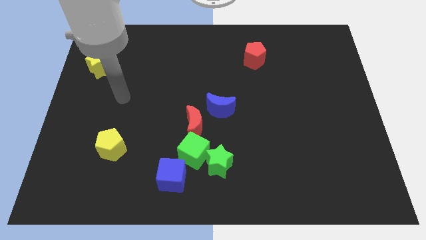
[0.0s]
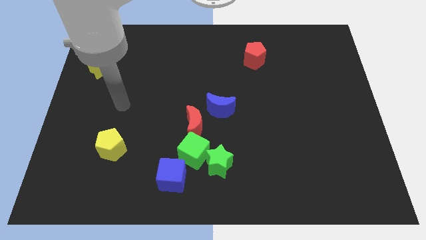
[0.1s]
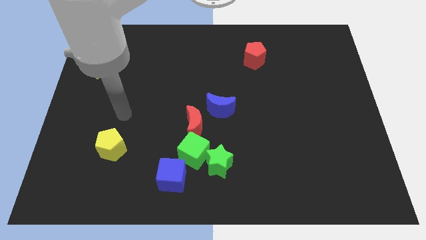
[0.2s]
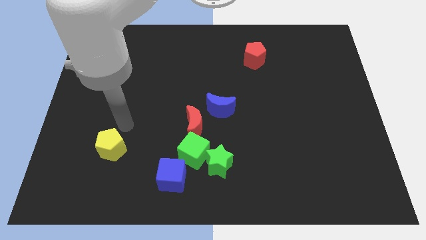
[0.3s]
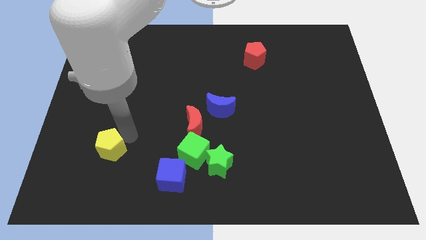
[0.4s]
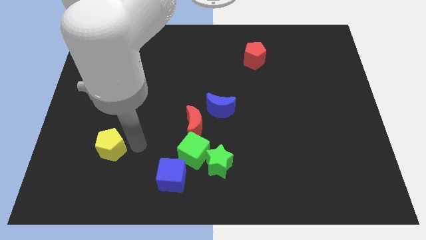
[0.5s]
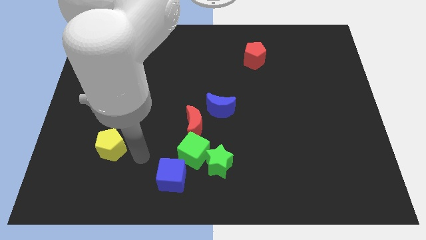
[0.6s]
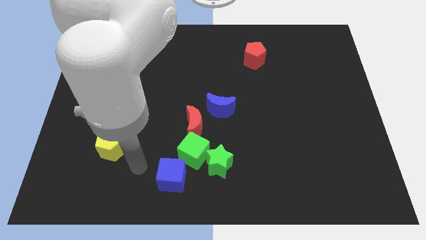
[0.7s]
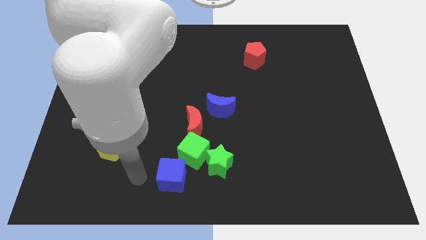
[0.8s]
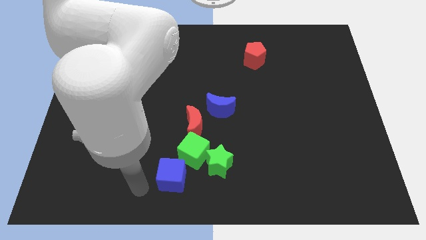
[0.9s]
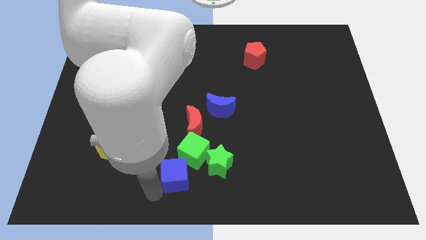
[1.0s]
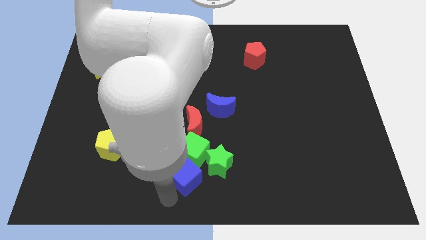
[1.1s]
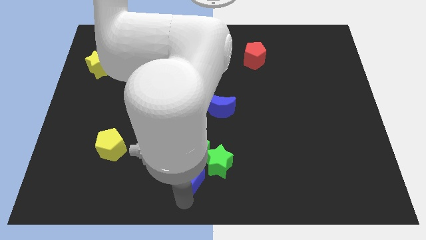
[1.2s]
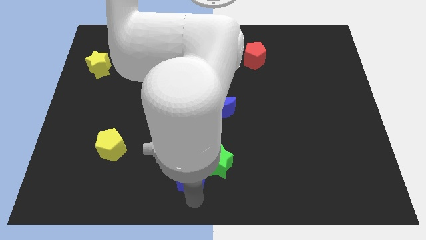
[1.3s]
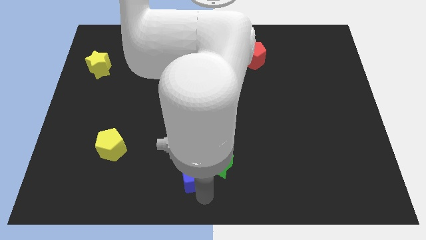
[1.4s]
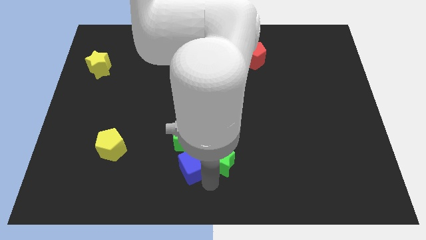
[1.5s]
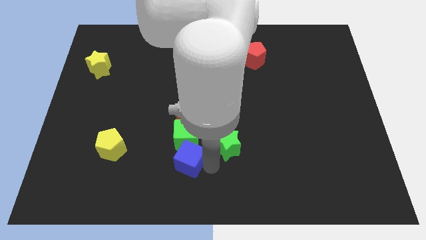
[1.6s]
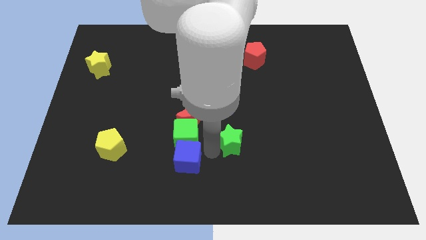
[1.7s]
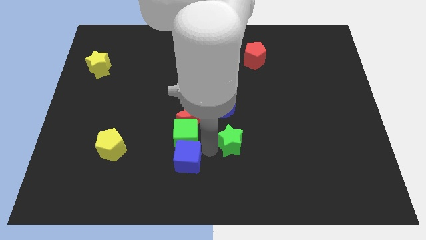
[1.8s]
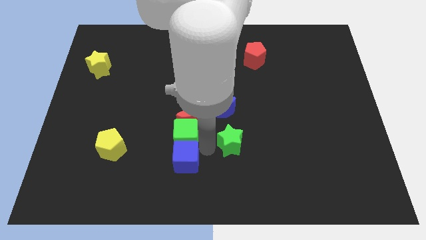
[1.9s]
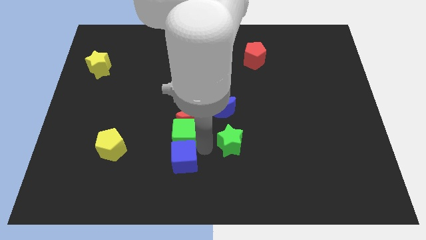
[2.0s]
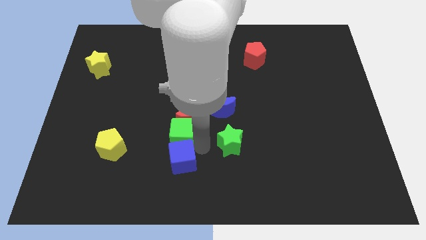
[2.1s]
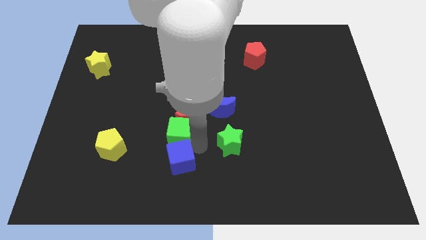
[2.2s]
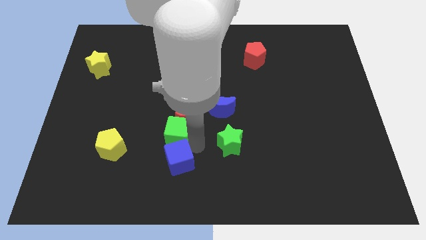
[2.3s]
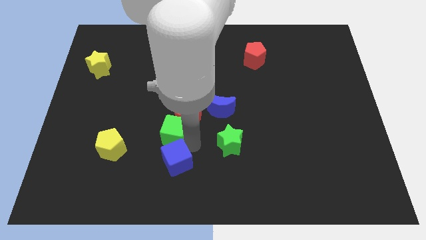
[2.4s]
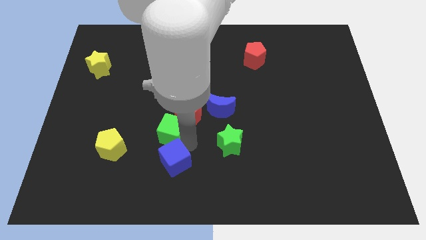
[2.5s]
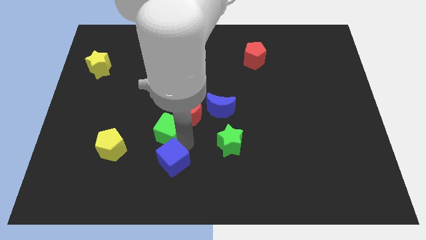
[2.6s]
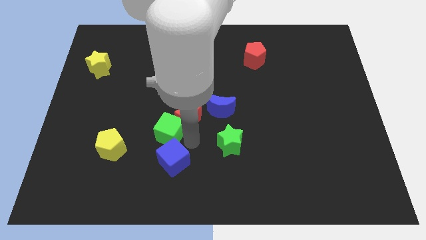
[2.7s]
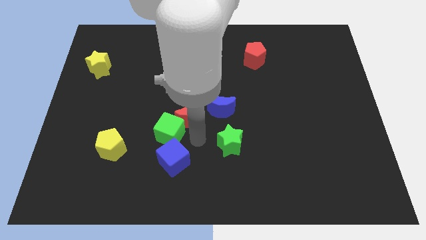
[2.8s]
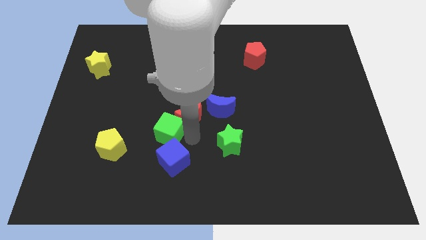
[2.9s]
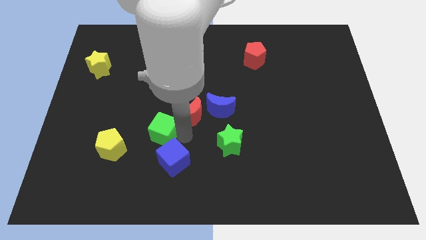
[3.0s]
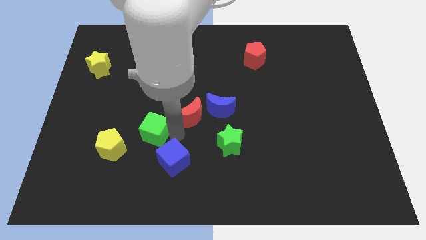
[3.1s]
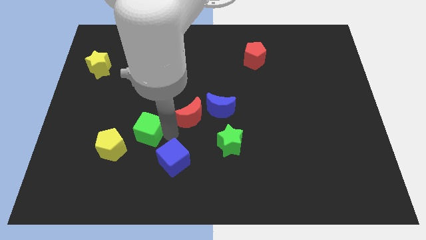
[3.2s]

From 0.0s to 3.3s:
separate the green cube from the green star, red moon, and blue cube

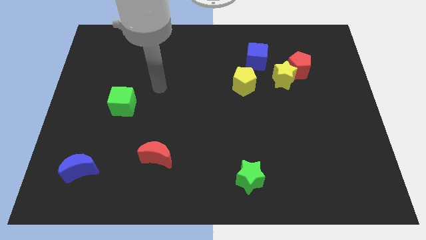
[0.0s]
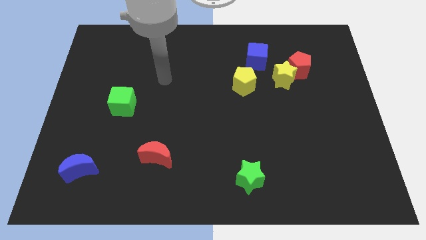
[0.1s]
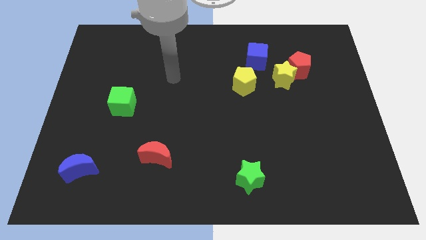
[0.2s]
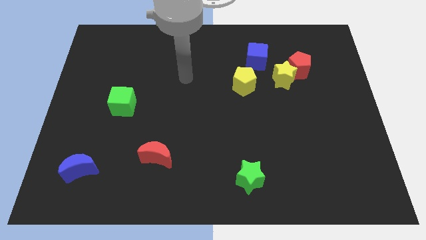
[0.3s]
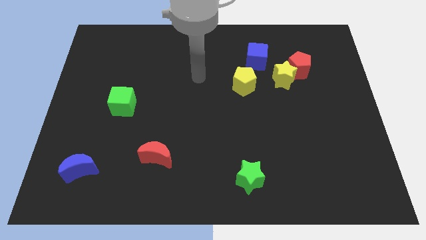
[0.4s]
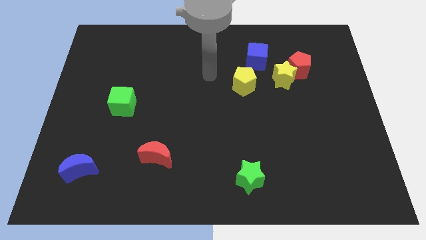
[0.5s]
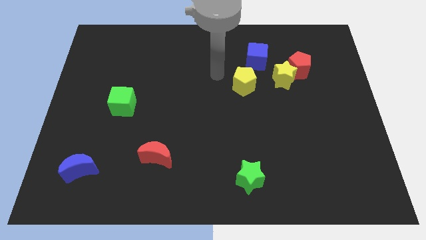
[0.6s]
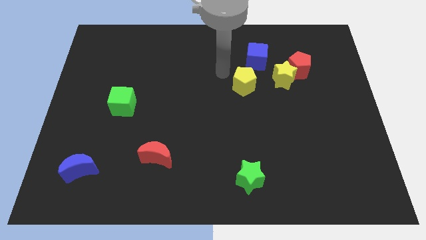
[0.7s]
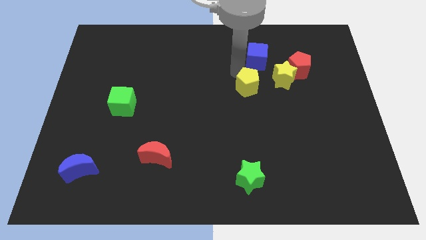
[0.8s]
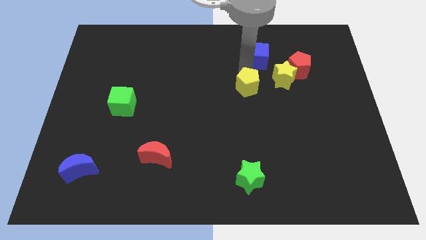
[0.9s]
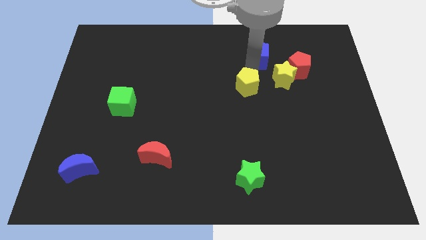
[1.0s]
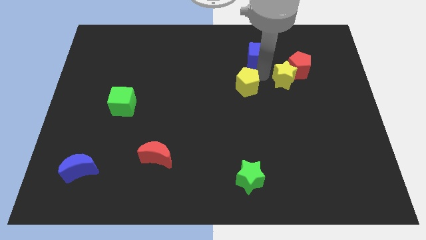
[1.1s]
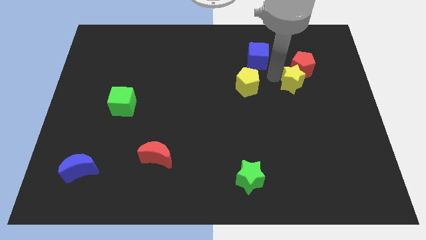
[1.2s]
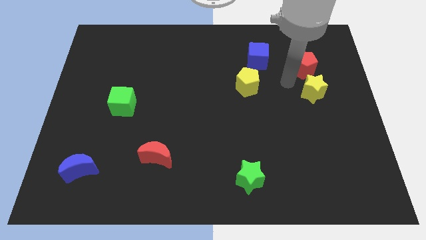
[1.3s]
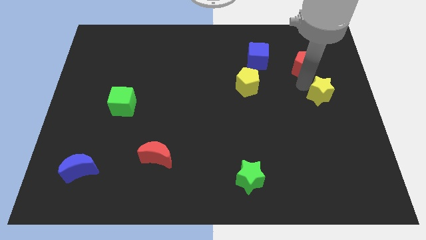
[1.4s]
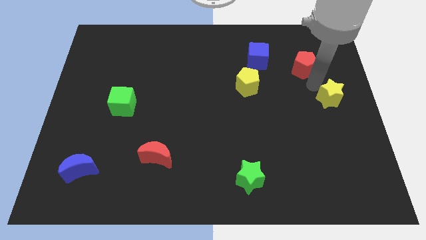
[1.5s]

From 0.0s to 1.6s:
move the red pentagon away from the yellow star

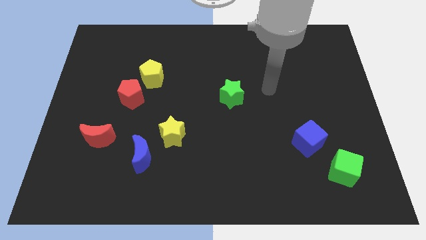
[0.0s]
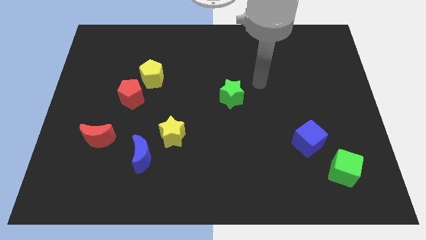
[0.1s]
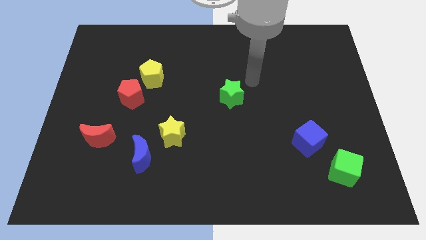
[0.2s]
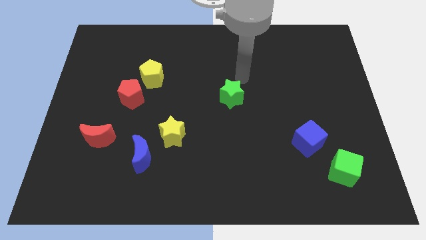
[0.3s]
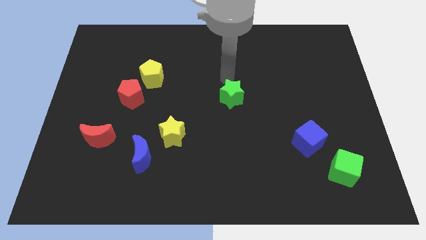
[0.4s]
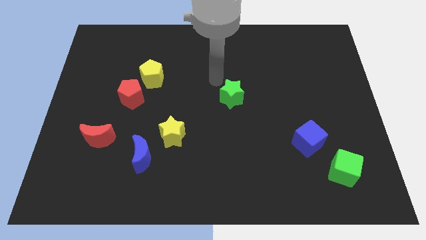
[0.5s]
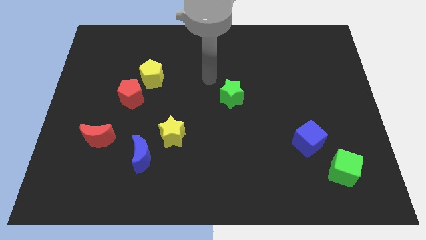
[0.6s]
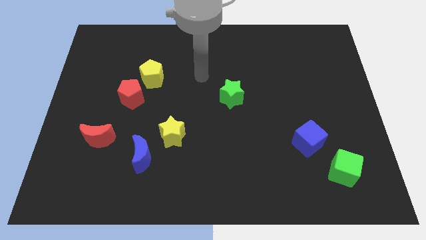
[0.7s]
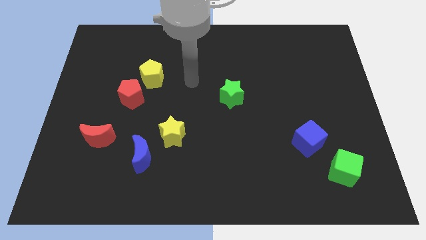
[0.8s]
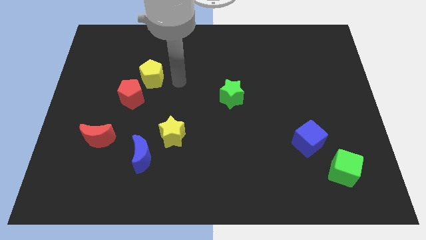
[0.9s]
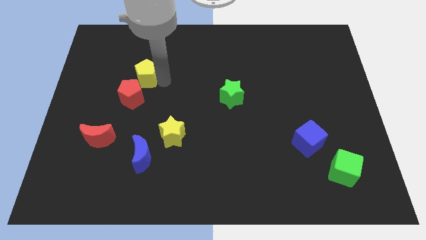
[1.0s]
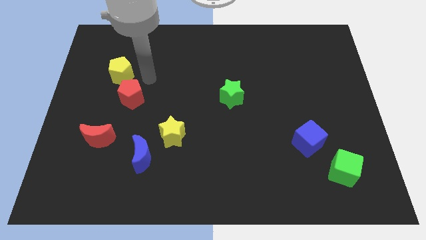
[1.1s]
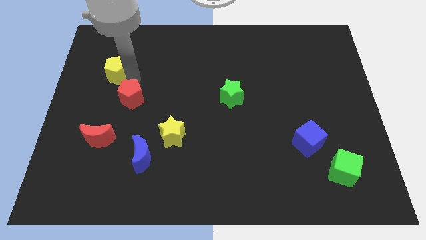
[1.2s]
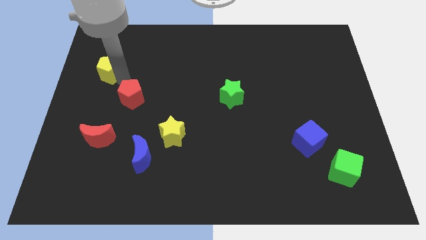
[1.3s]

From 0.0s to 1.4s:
pull the red pentagon apart from the yellow pentagon

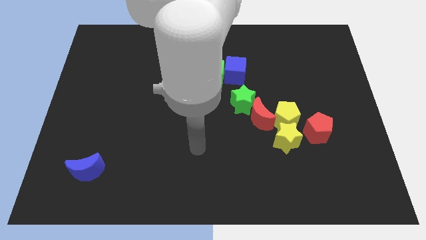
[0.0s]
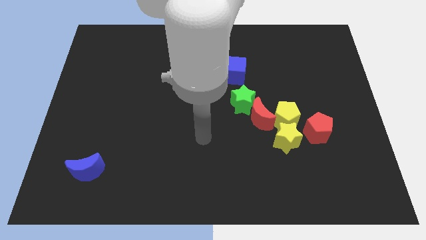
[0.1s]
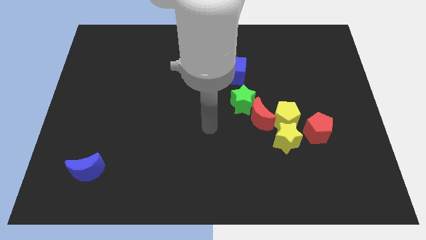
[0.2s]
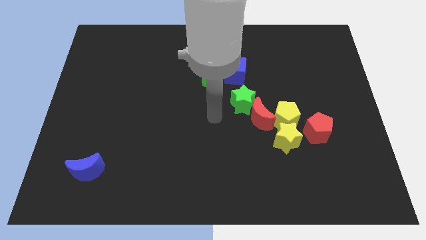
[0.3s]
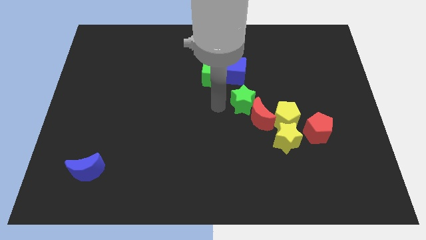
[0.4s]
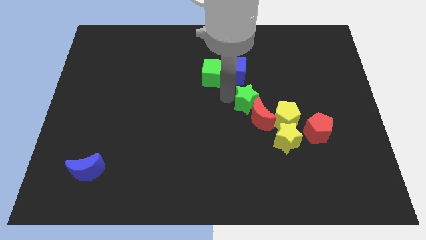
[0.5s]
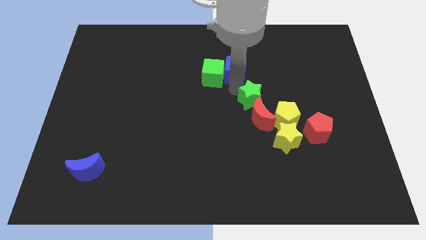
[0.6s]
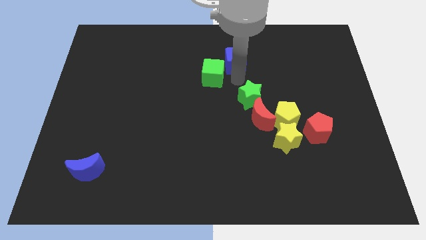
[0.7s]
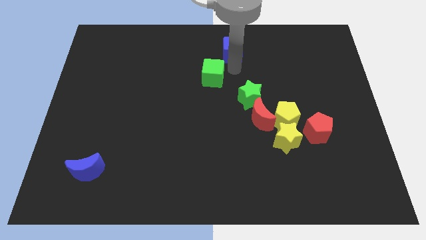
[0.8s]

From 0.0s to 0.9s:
pull the green cube apart from the blue cube

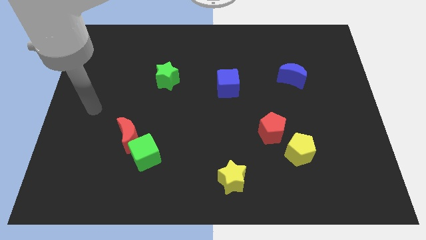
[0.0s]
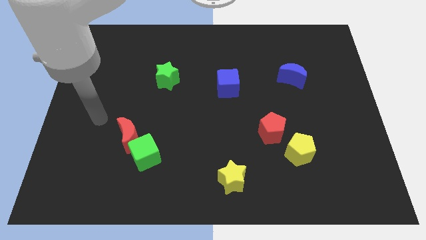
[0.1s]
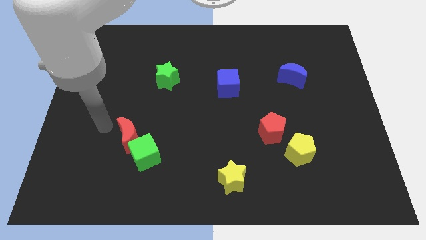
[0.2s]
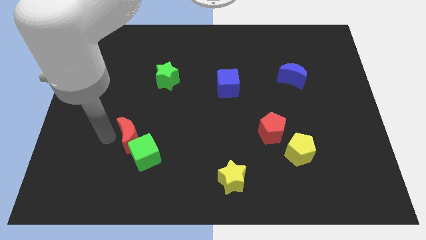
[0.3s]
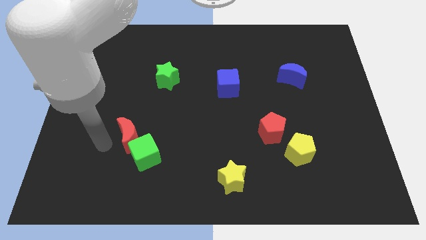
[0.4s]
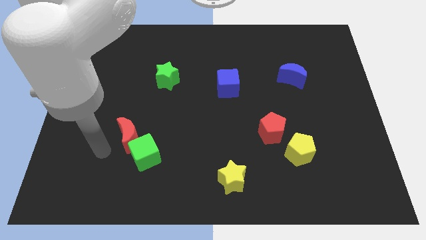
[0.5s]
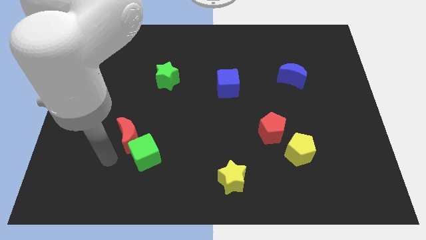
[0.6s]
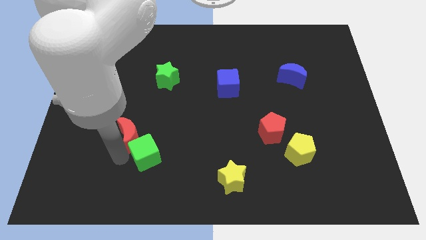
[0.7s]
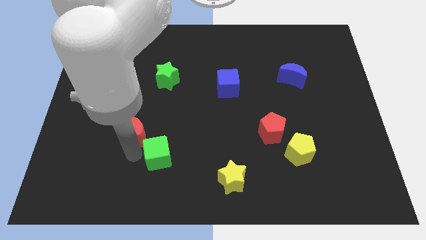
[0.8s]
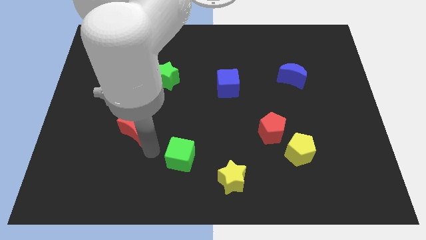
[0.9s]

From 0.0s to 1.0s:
separate the red moon from the green cube

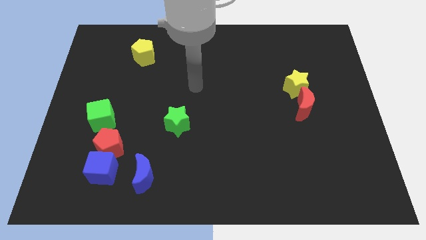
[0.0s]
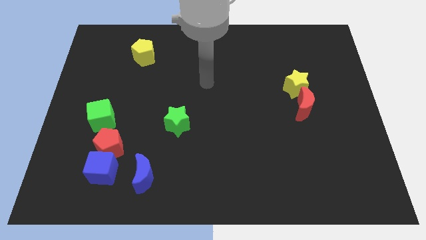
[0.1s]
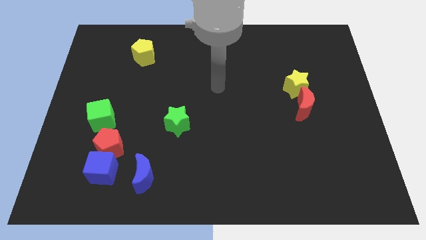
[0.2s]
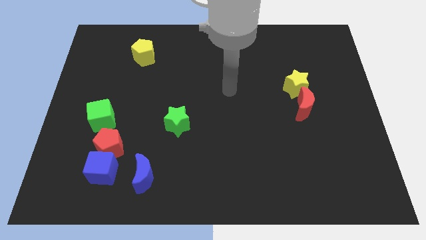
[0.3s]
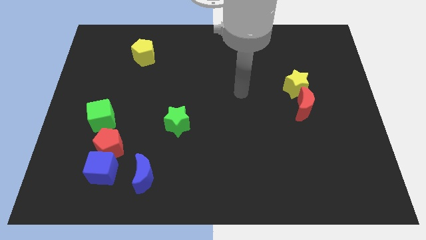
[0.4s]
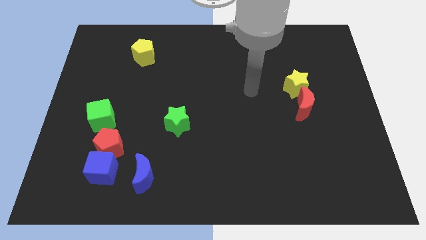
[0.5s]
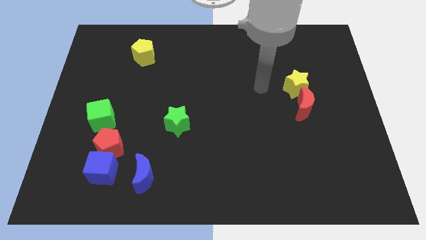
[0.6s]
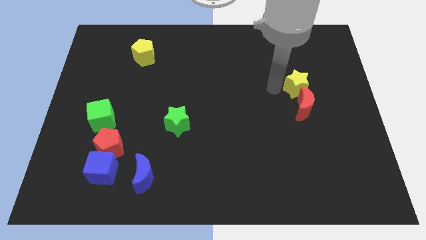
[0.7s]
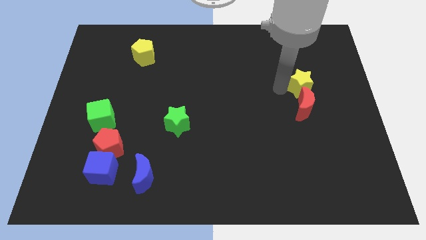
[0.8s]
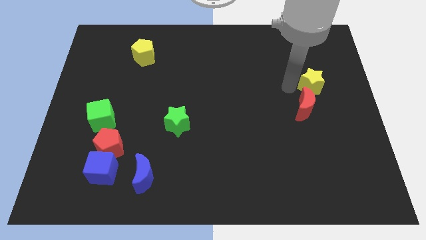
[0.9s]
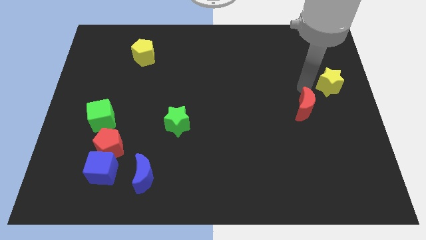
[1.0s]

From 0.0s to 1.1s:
move the red moon away from the yellow star
